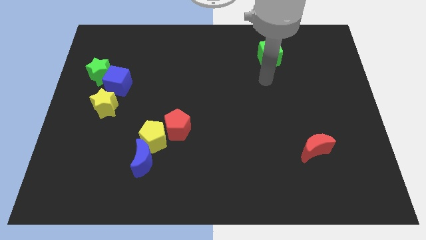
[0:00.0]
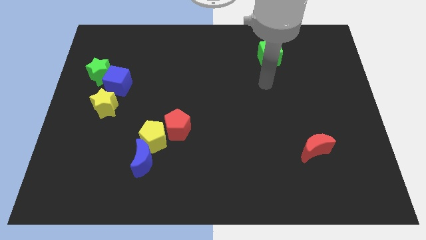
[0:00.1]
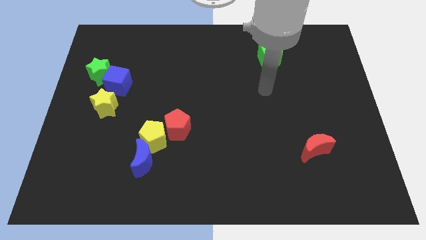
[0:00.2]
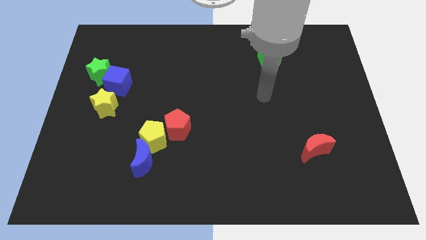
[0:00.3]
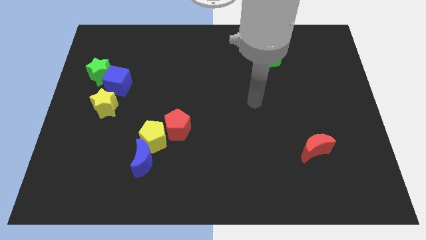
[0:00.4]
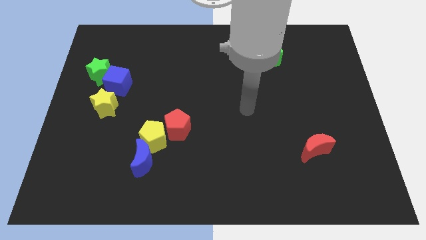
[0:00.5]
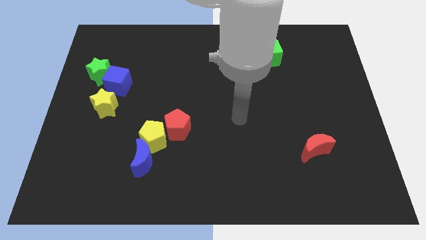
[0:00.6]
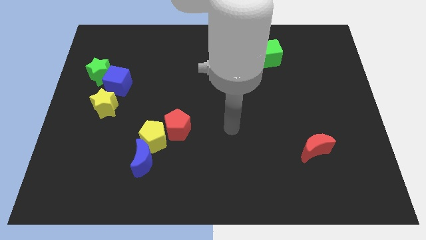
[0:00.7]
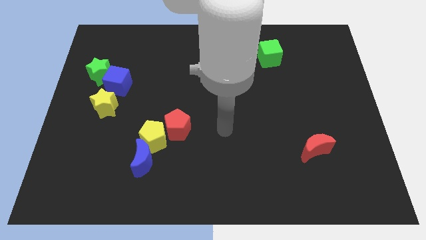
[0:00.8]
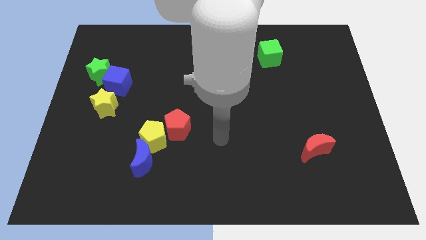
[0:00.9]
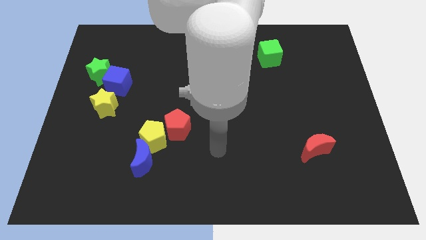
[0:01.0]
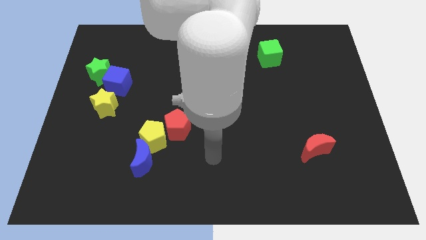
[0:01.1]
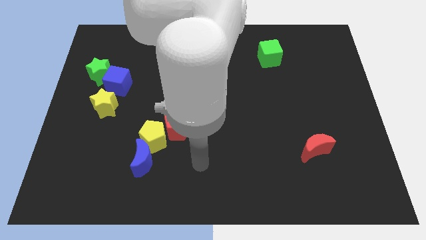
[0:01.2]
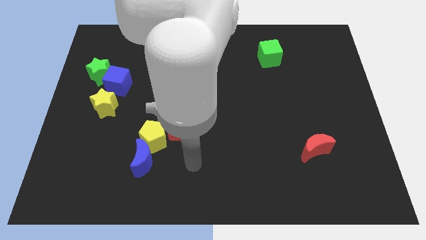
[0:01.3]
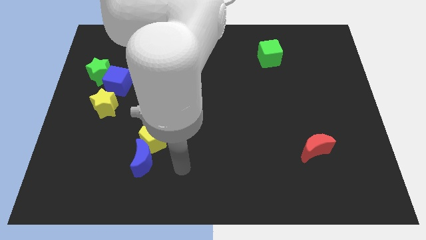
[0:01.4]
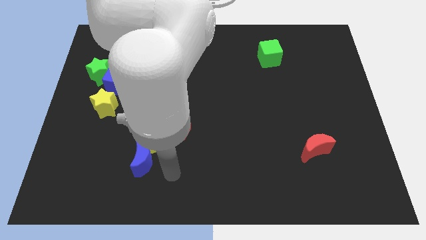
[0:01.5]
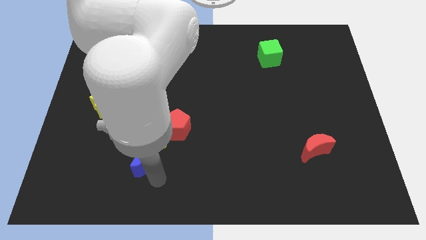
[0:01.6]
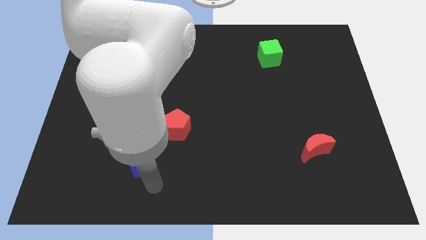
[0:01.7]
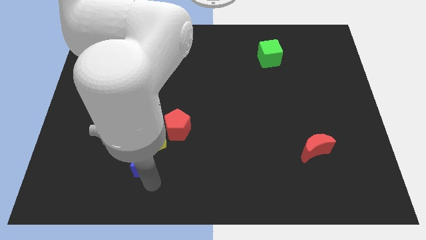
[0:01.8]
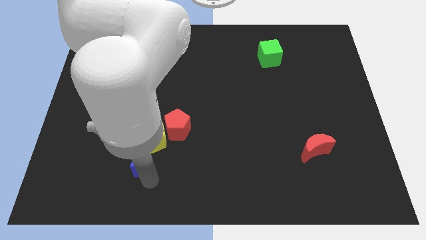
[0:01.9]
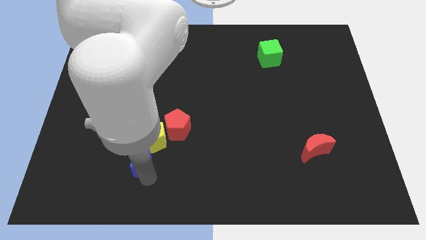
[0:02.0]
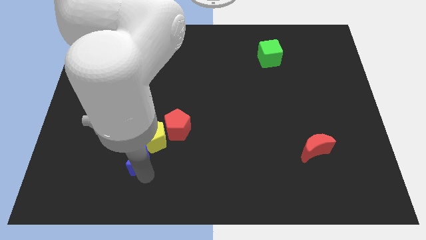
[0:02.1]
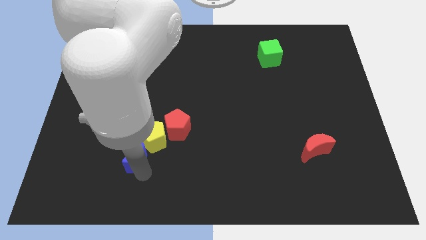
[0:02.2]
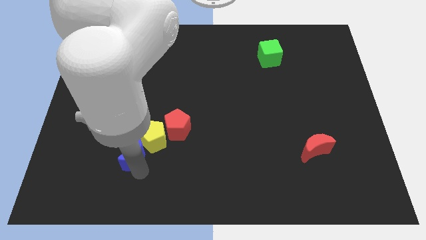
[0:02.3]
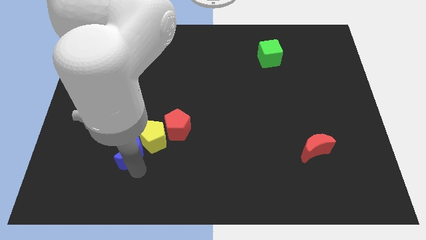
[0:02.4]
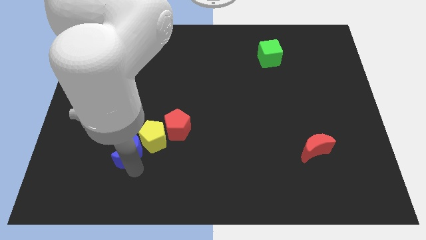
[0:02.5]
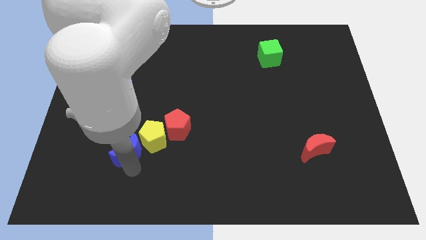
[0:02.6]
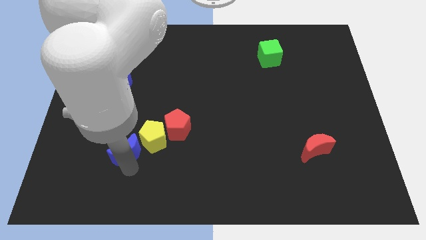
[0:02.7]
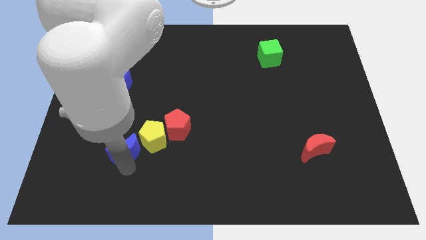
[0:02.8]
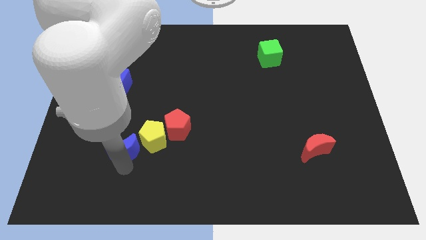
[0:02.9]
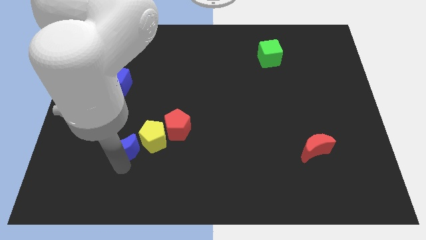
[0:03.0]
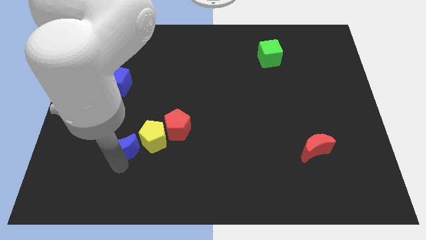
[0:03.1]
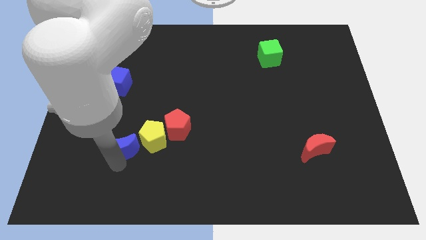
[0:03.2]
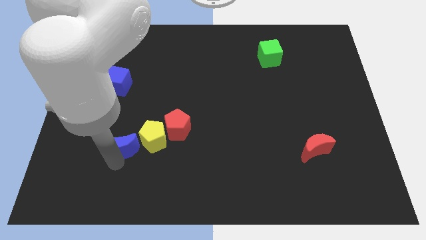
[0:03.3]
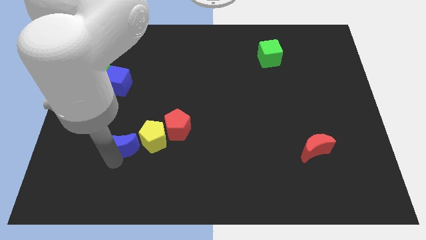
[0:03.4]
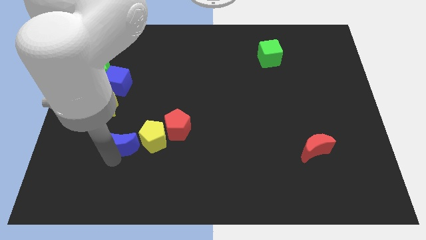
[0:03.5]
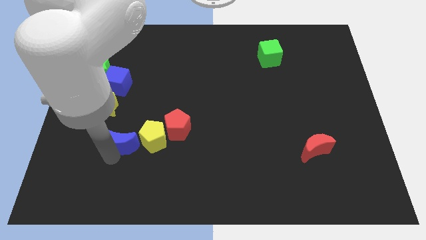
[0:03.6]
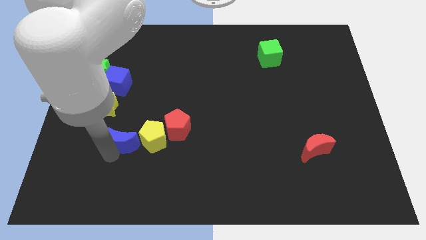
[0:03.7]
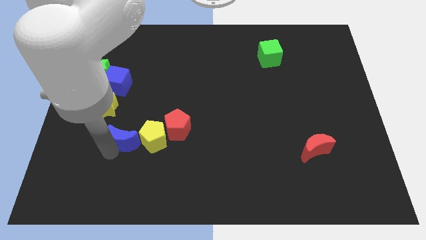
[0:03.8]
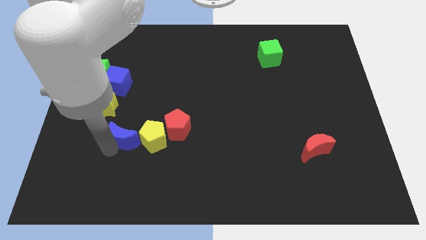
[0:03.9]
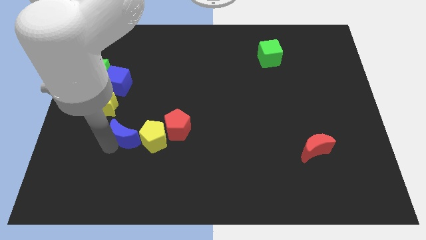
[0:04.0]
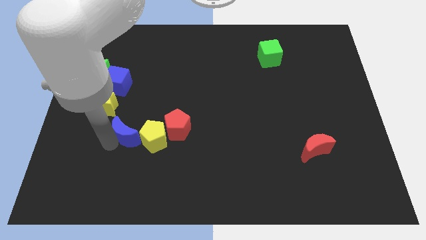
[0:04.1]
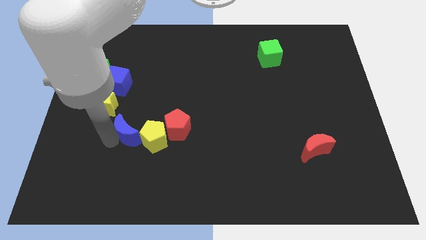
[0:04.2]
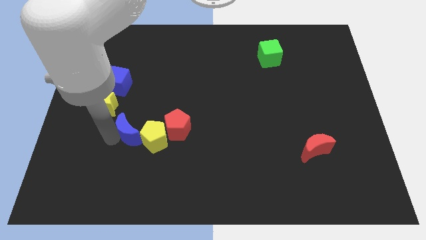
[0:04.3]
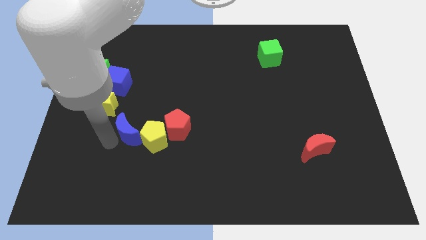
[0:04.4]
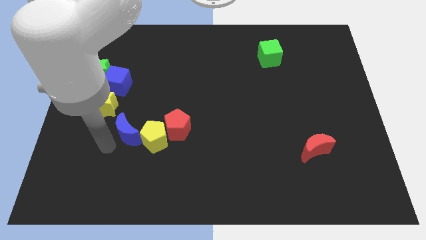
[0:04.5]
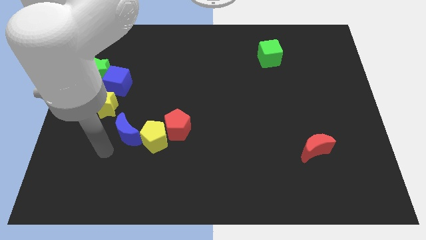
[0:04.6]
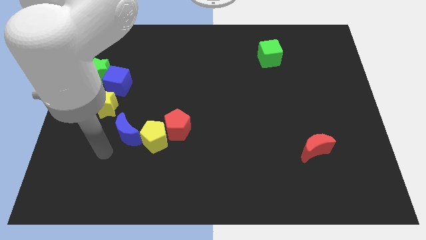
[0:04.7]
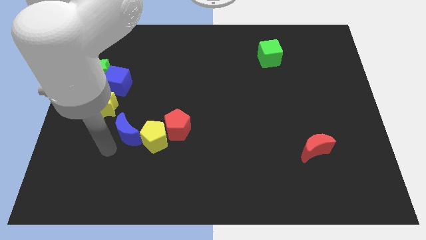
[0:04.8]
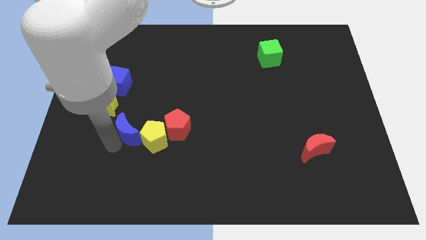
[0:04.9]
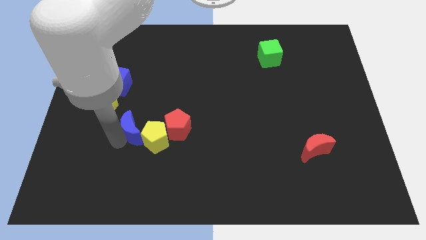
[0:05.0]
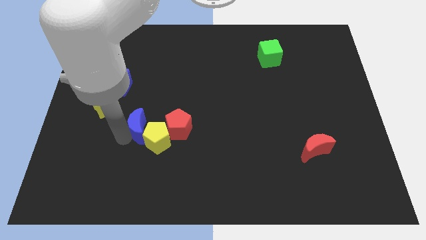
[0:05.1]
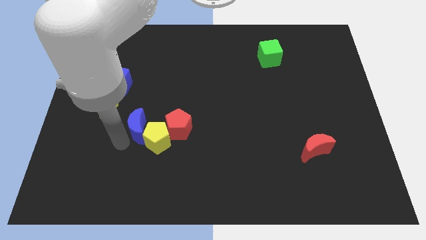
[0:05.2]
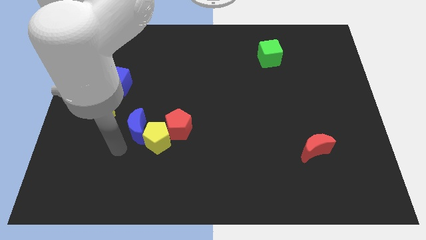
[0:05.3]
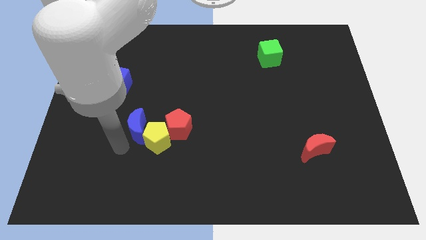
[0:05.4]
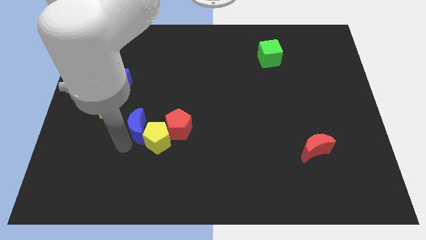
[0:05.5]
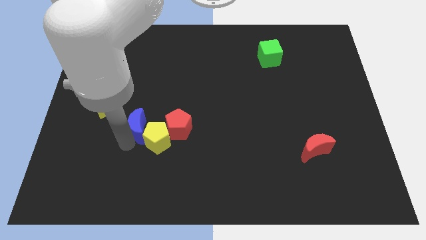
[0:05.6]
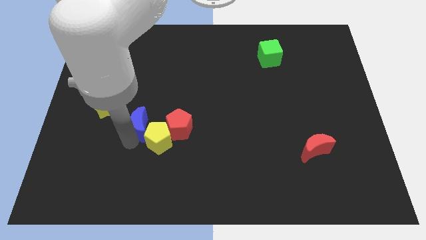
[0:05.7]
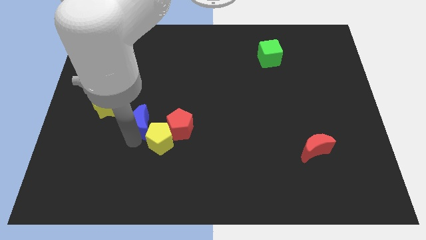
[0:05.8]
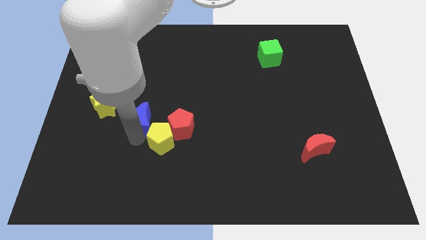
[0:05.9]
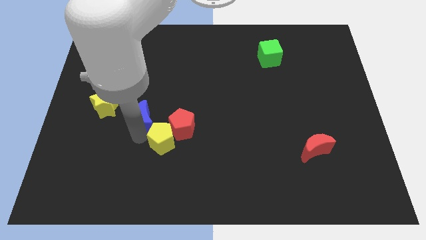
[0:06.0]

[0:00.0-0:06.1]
slide the blue moon diagonally up and to the left of the red pentagon

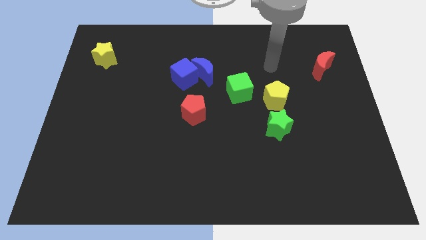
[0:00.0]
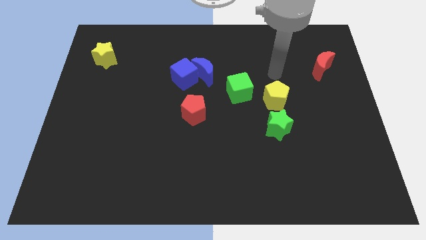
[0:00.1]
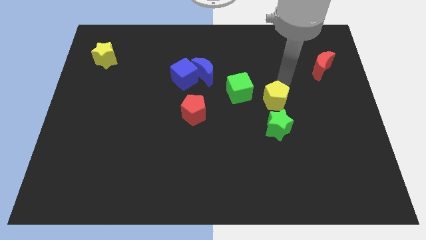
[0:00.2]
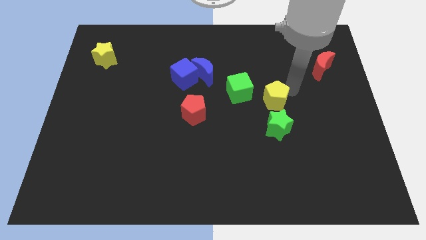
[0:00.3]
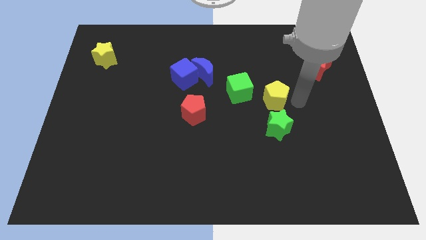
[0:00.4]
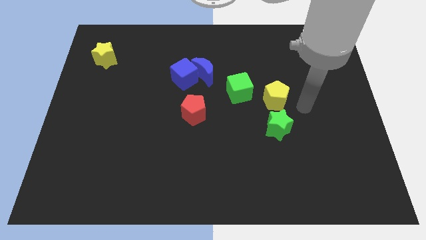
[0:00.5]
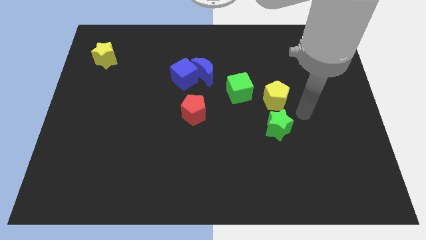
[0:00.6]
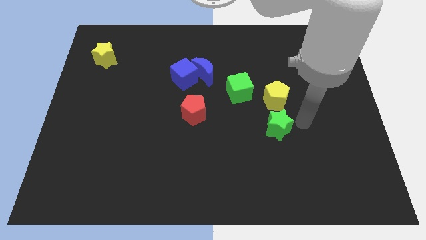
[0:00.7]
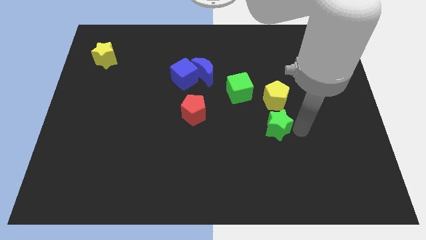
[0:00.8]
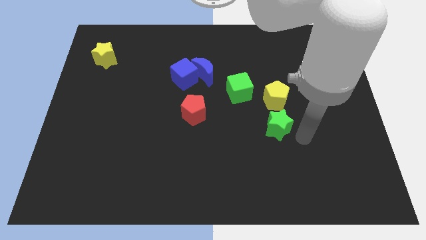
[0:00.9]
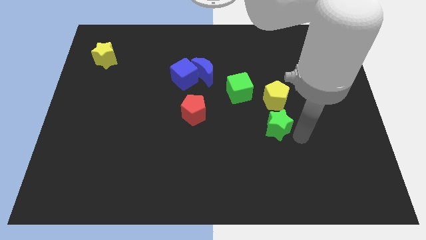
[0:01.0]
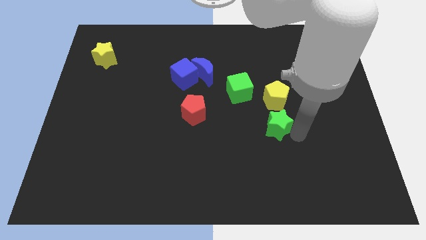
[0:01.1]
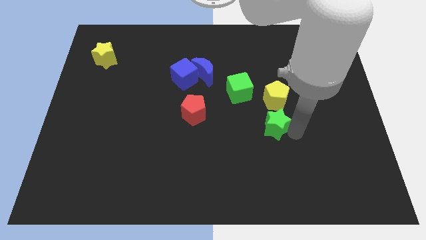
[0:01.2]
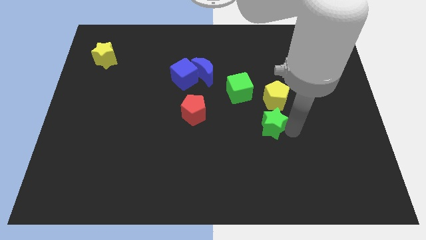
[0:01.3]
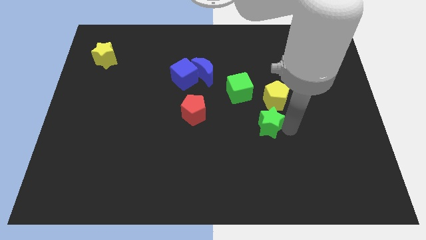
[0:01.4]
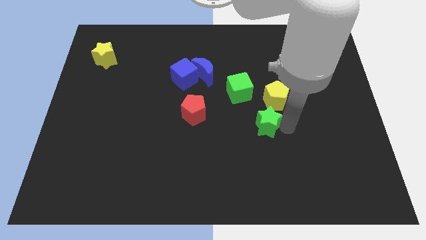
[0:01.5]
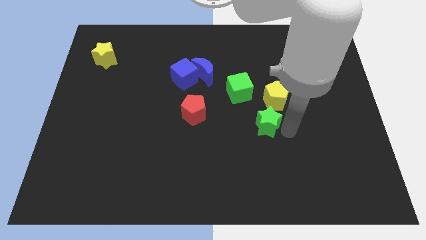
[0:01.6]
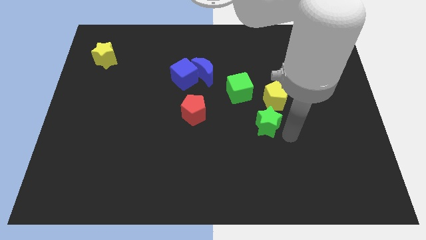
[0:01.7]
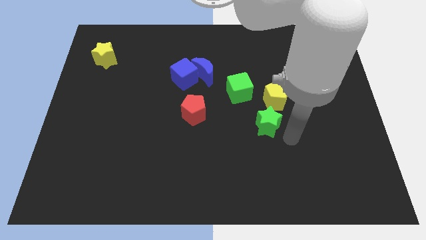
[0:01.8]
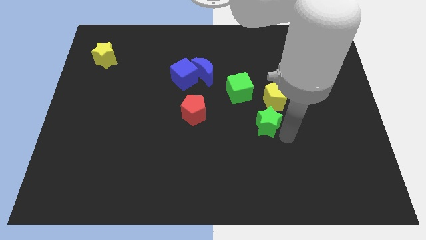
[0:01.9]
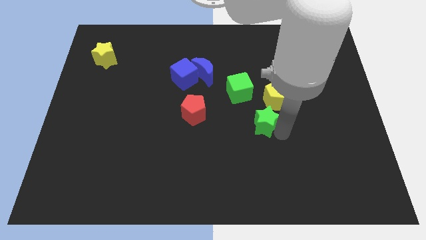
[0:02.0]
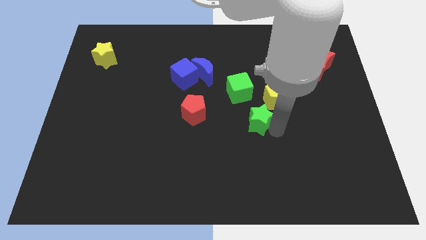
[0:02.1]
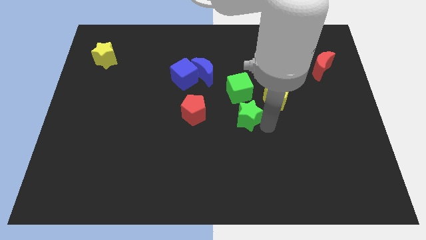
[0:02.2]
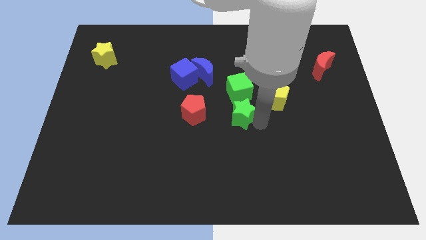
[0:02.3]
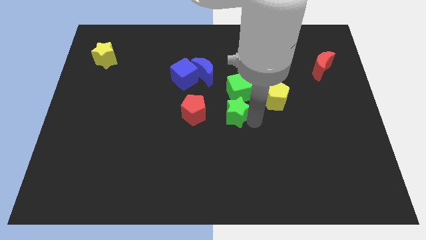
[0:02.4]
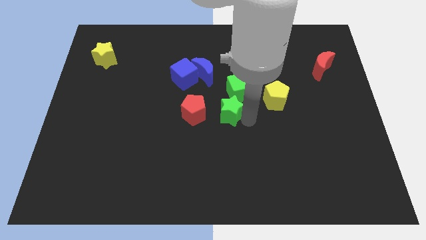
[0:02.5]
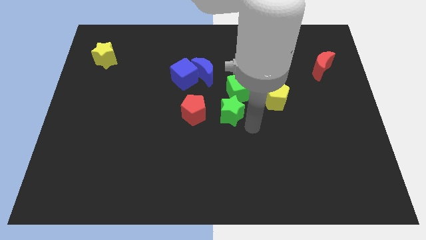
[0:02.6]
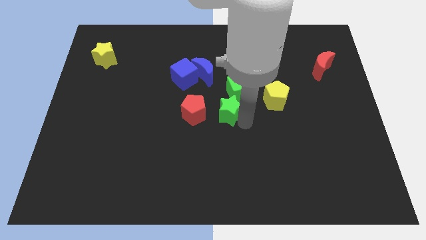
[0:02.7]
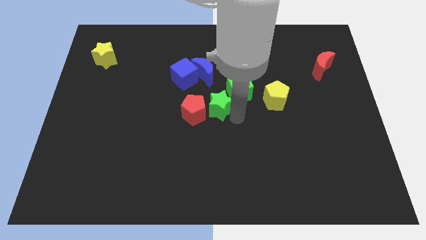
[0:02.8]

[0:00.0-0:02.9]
push the green star just left of the green cube
